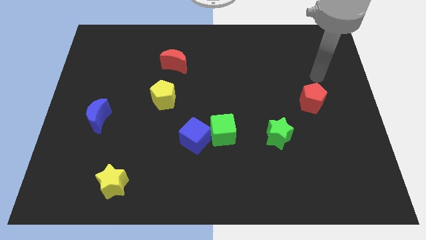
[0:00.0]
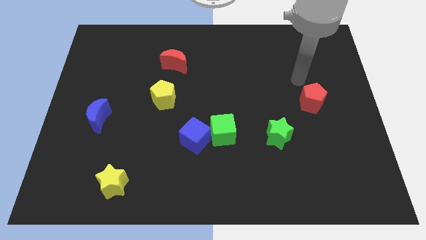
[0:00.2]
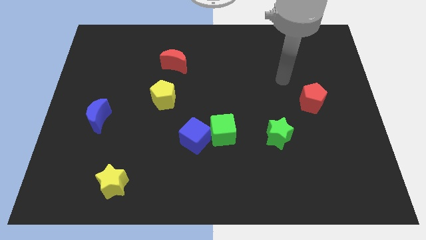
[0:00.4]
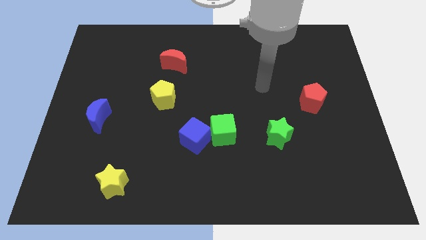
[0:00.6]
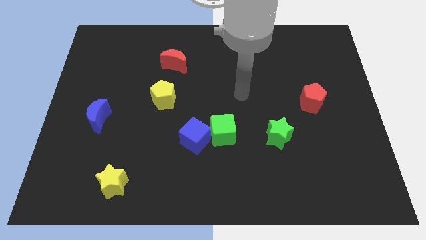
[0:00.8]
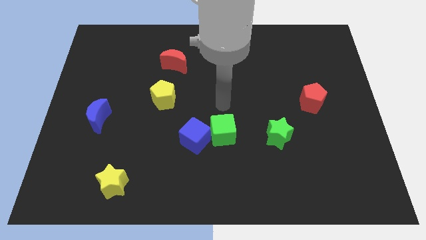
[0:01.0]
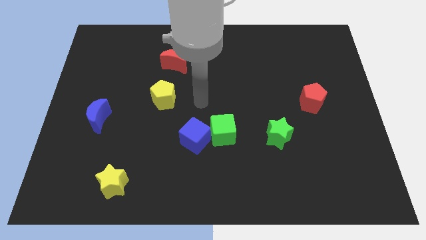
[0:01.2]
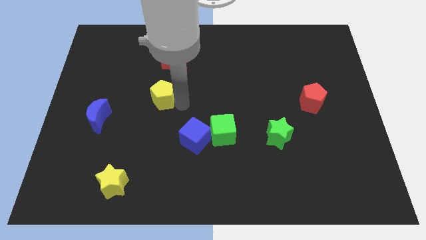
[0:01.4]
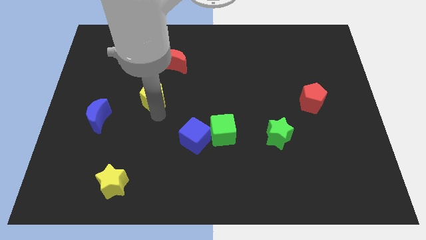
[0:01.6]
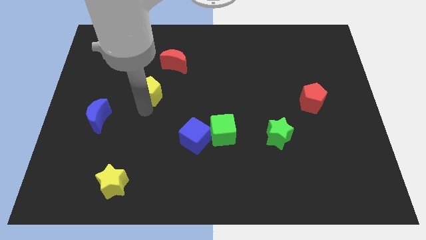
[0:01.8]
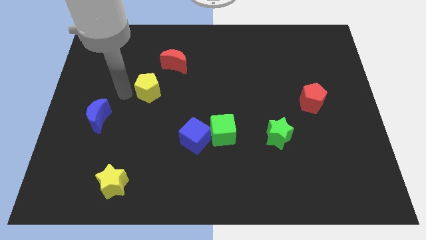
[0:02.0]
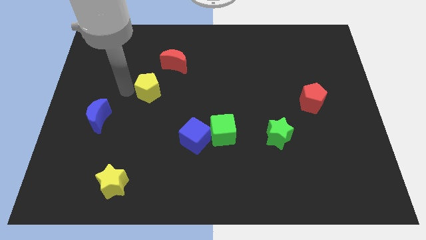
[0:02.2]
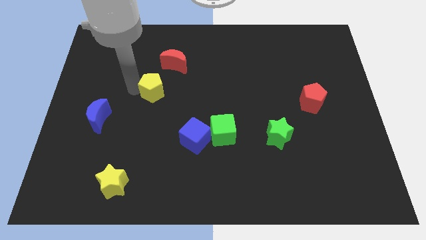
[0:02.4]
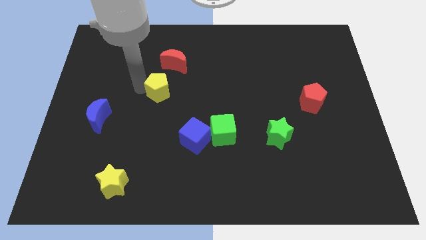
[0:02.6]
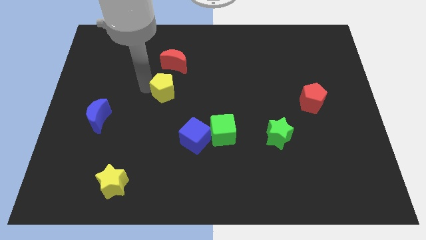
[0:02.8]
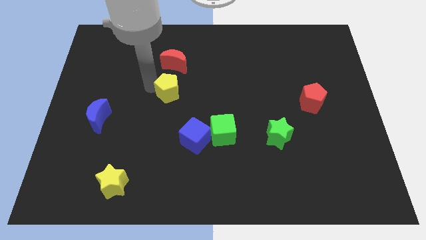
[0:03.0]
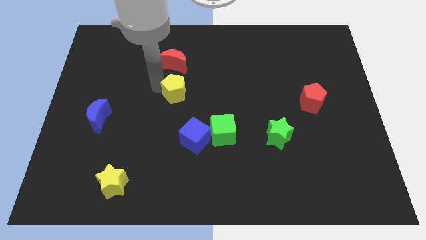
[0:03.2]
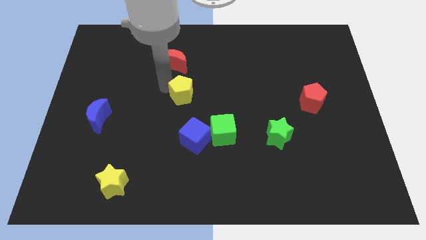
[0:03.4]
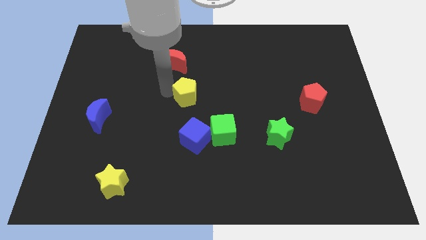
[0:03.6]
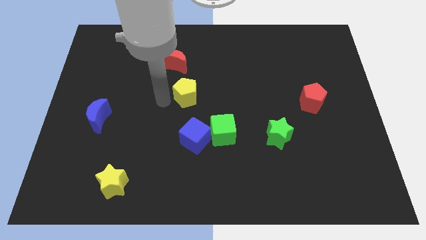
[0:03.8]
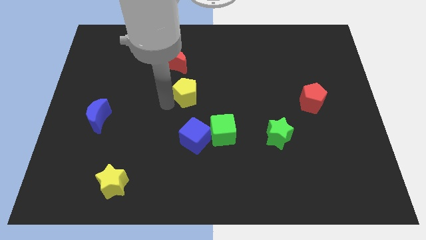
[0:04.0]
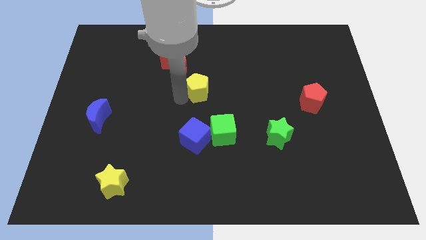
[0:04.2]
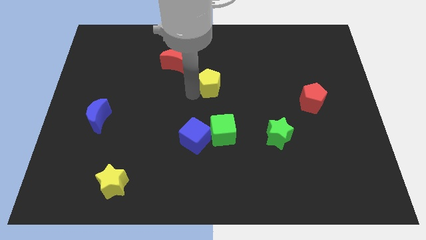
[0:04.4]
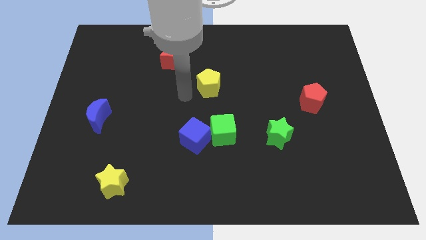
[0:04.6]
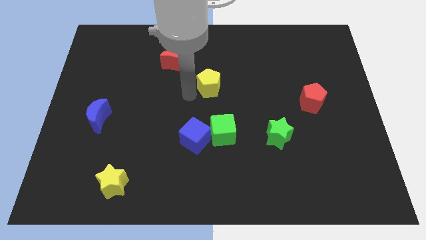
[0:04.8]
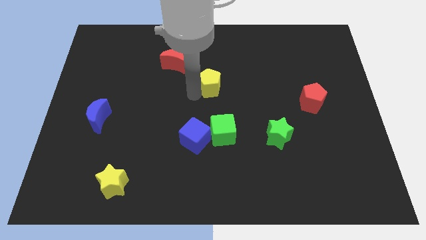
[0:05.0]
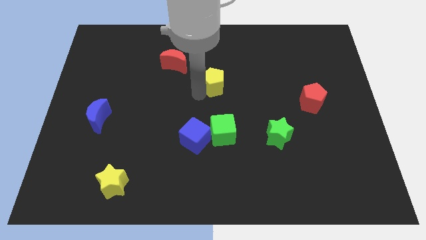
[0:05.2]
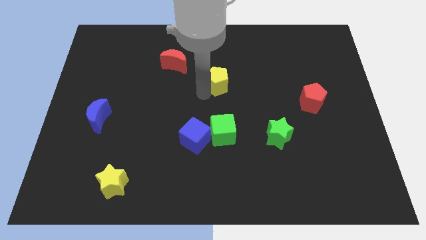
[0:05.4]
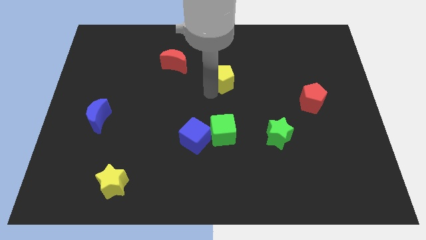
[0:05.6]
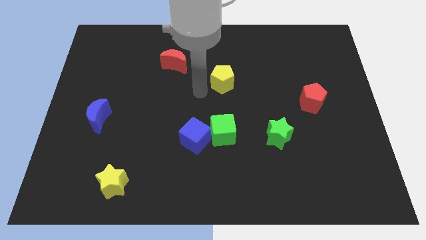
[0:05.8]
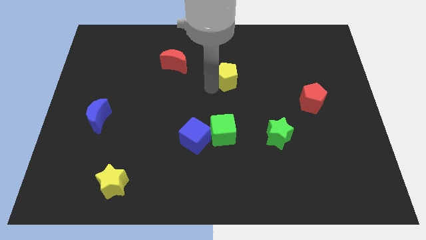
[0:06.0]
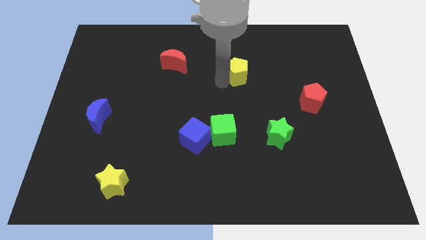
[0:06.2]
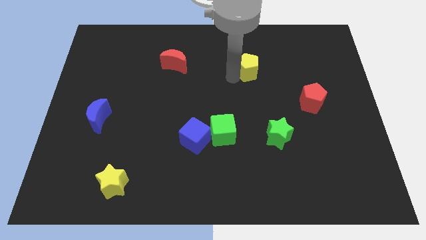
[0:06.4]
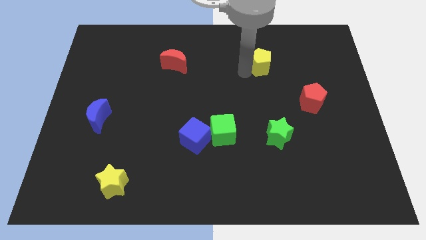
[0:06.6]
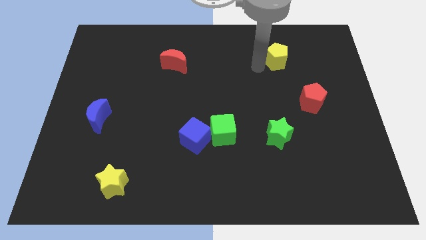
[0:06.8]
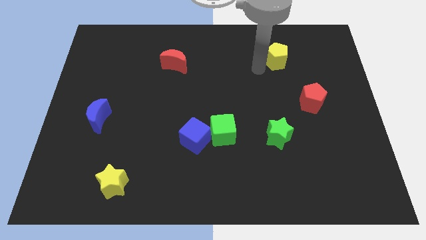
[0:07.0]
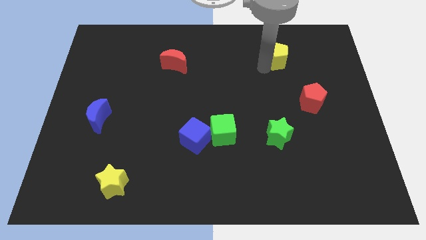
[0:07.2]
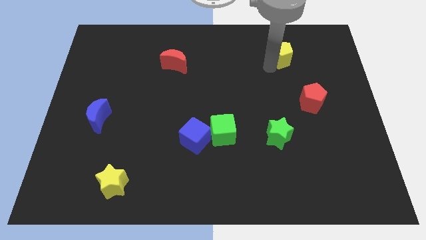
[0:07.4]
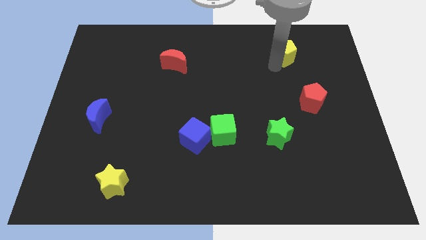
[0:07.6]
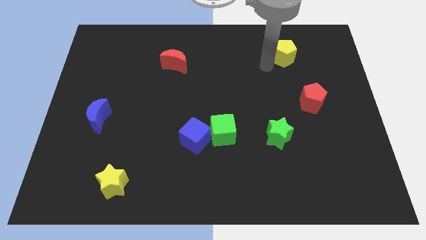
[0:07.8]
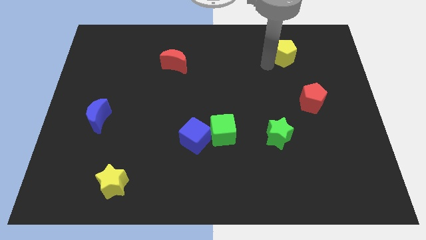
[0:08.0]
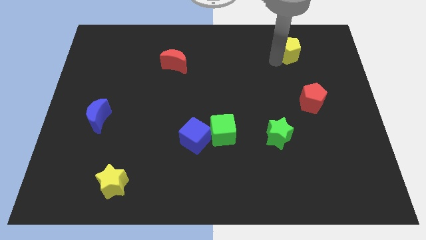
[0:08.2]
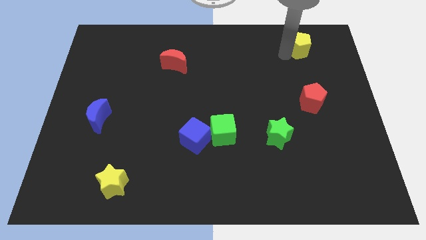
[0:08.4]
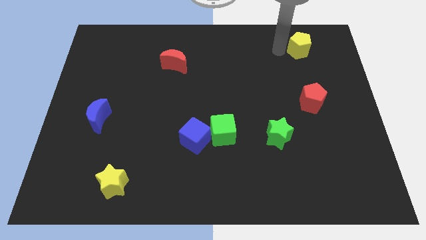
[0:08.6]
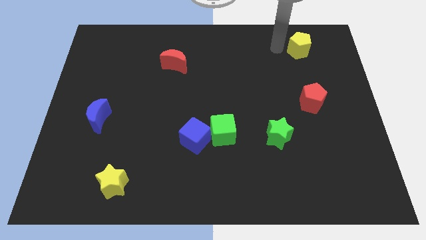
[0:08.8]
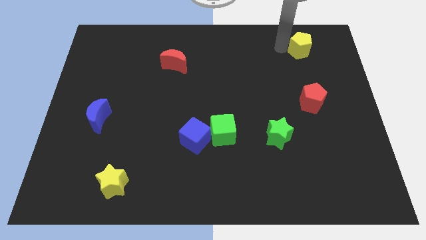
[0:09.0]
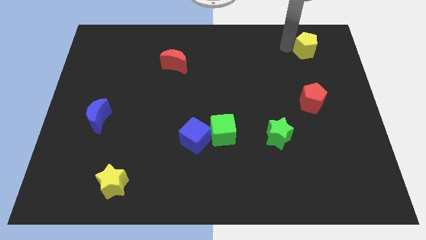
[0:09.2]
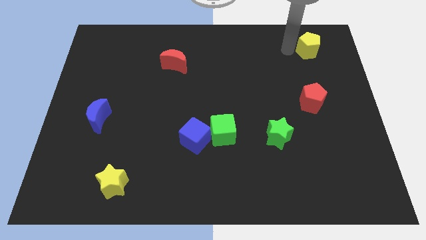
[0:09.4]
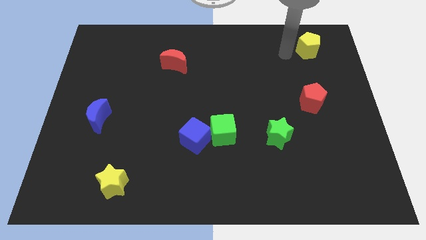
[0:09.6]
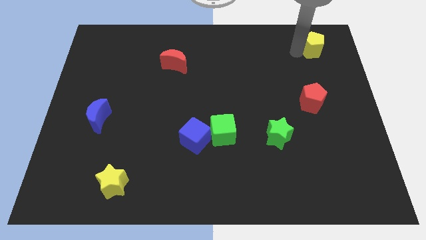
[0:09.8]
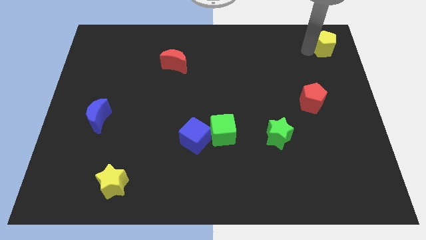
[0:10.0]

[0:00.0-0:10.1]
put the yellow pentagon to the upper right corner

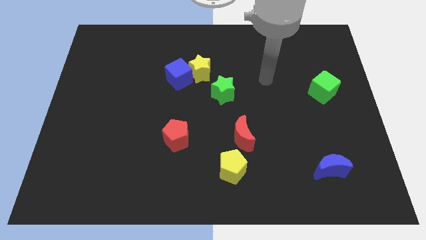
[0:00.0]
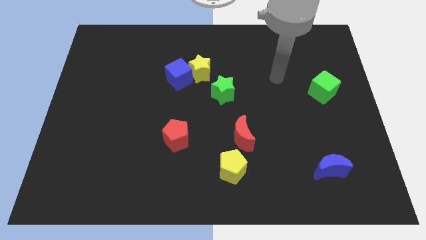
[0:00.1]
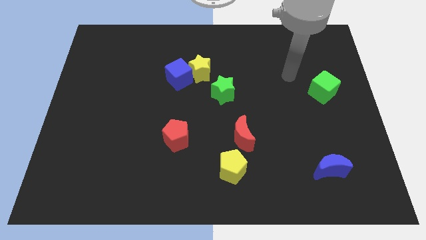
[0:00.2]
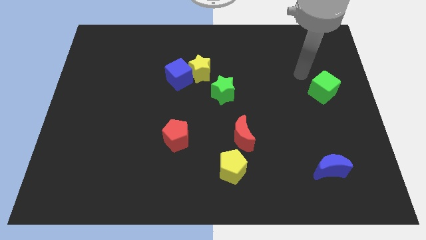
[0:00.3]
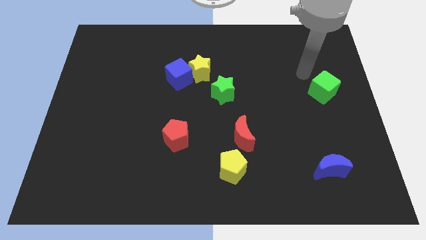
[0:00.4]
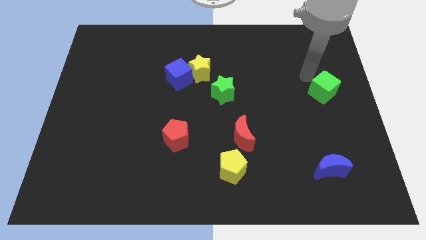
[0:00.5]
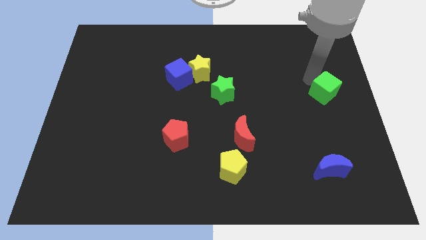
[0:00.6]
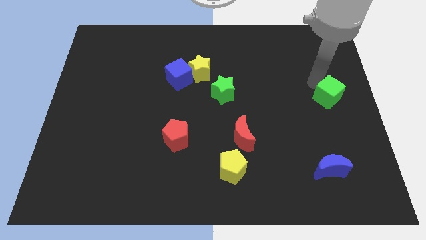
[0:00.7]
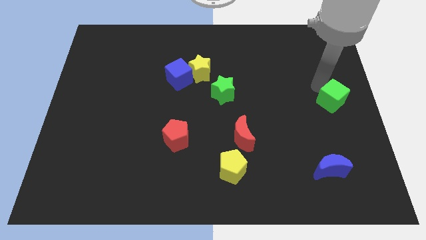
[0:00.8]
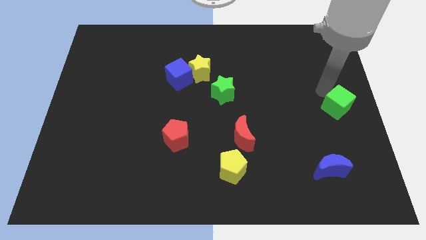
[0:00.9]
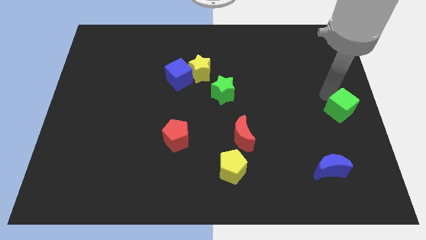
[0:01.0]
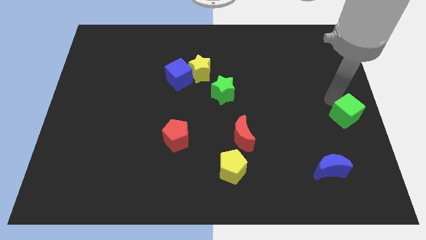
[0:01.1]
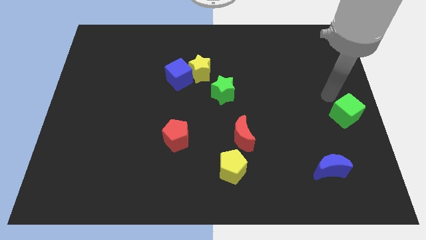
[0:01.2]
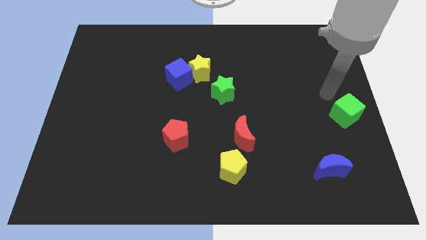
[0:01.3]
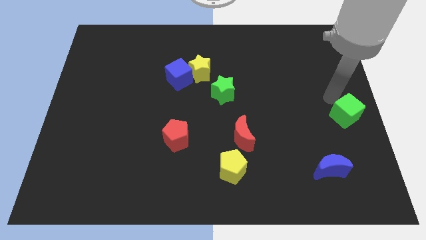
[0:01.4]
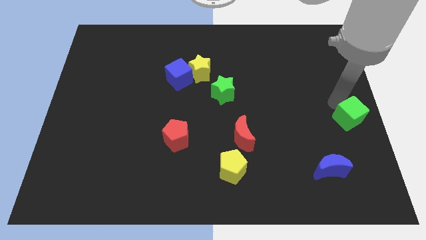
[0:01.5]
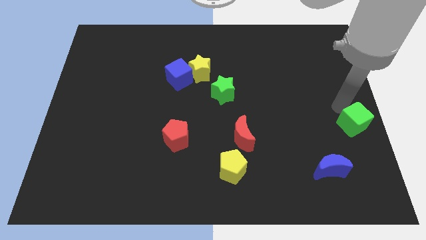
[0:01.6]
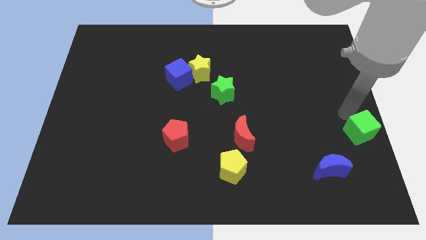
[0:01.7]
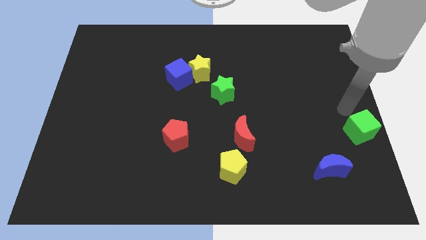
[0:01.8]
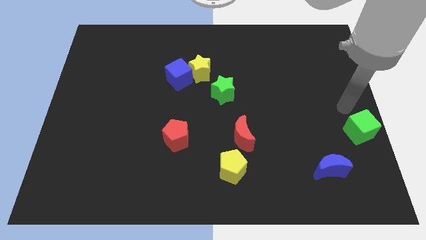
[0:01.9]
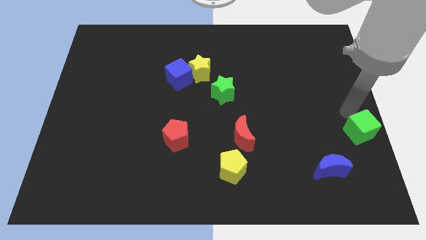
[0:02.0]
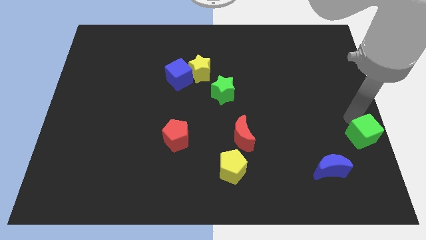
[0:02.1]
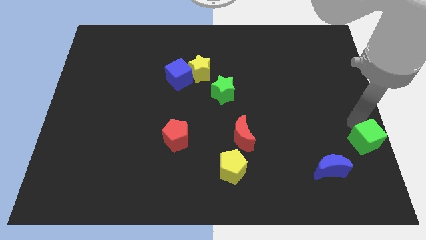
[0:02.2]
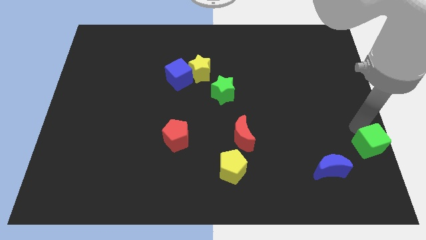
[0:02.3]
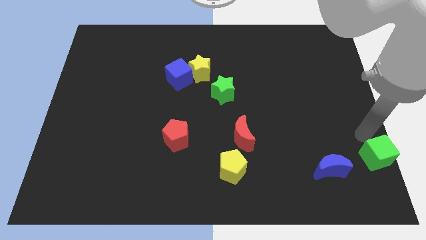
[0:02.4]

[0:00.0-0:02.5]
move the green cube to the bottom right corner
